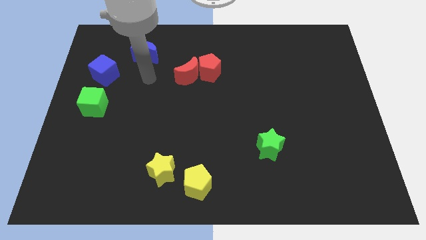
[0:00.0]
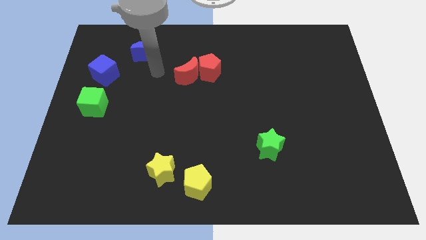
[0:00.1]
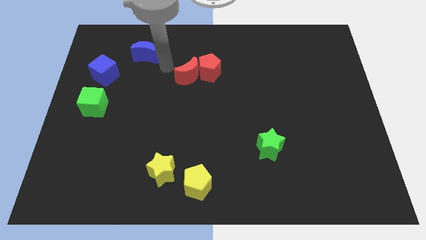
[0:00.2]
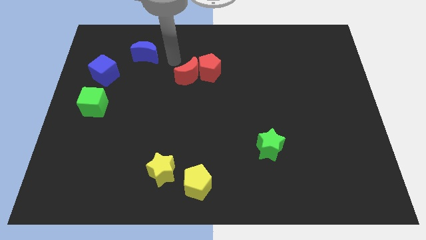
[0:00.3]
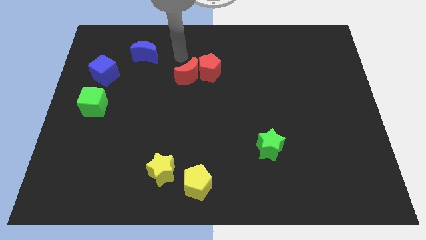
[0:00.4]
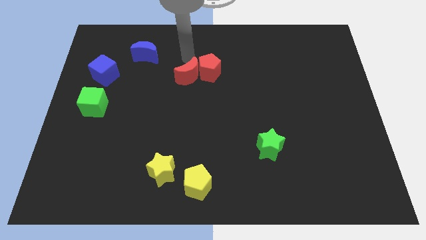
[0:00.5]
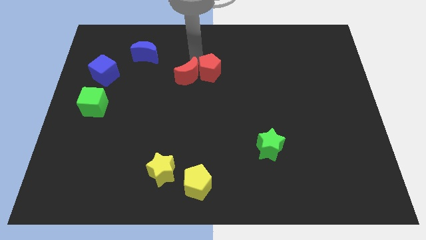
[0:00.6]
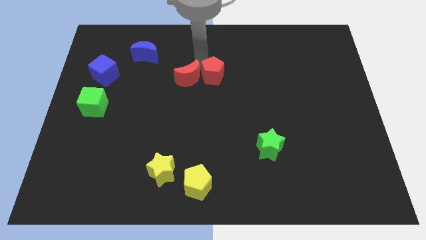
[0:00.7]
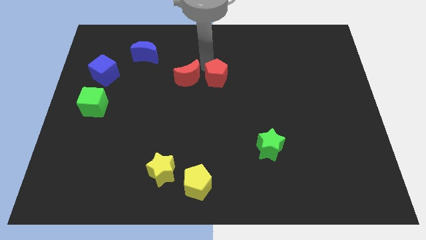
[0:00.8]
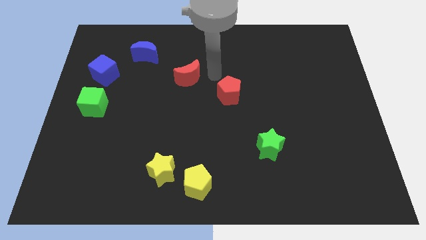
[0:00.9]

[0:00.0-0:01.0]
move the red moon away from the red pentagon

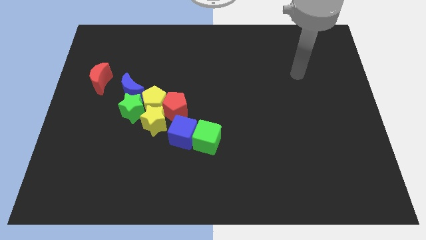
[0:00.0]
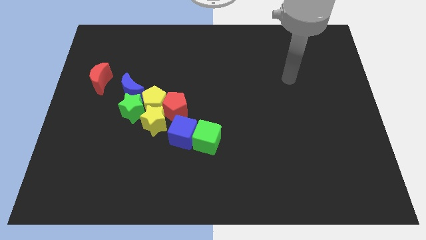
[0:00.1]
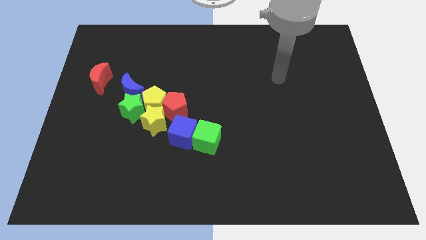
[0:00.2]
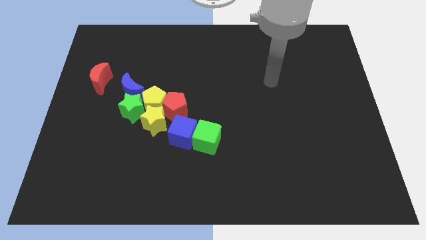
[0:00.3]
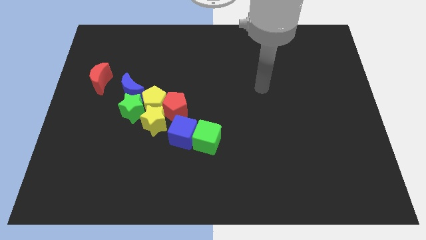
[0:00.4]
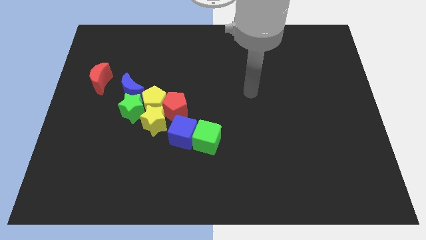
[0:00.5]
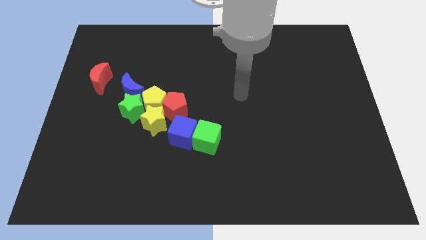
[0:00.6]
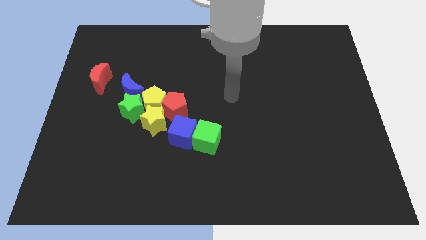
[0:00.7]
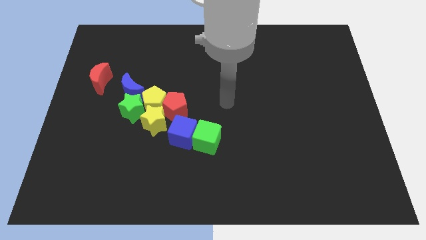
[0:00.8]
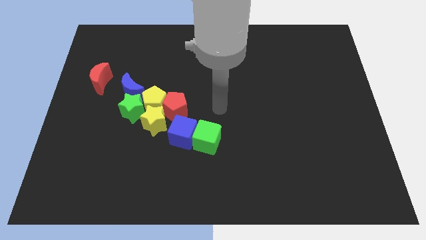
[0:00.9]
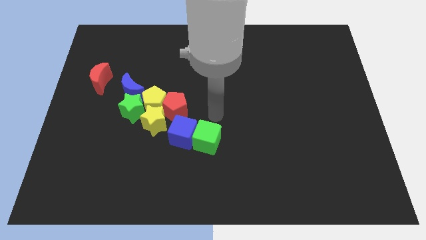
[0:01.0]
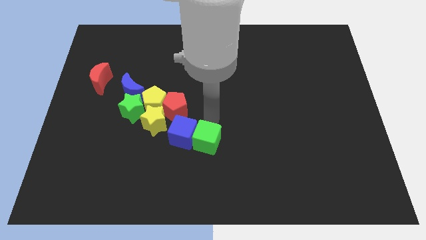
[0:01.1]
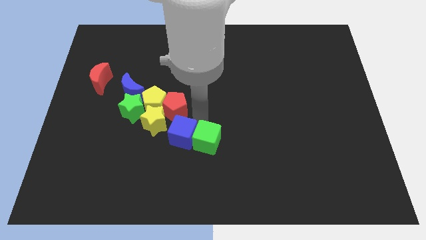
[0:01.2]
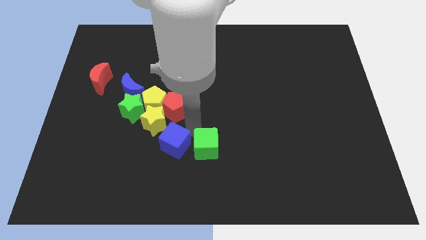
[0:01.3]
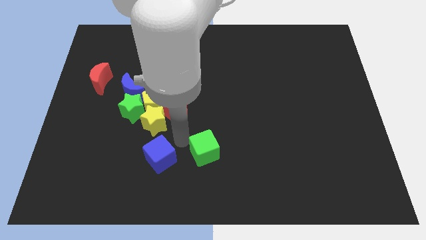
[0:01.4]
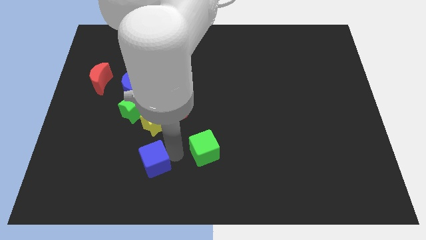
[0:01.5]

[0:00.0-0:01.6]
pull the green cube apart from the blue cube

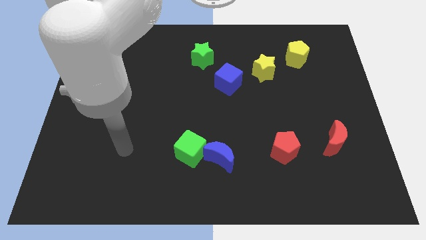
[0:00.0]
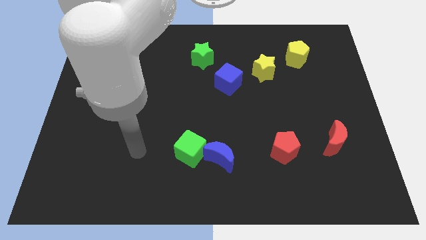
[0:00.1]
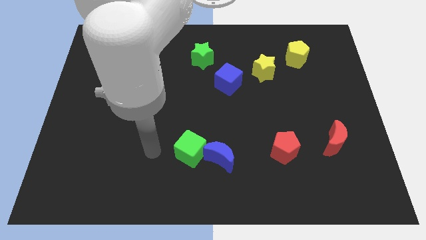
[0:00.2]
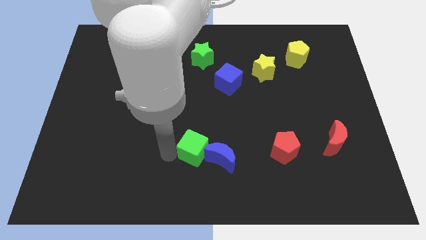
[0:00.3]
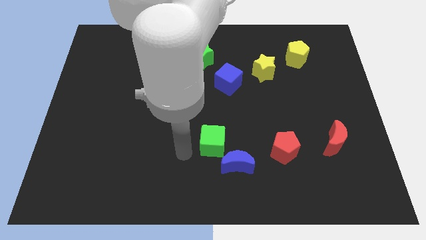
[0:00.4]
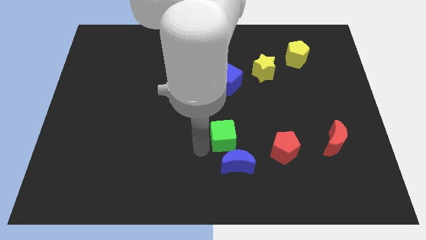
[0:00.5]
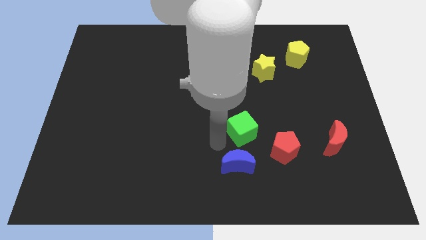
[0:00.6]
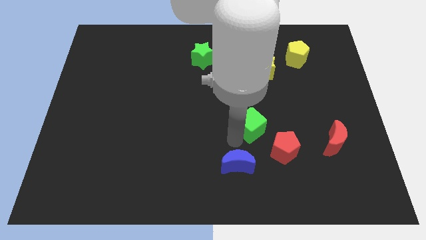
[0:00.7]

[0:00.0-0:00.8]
move the blue moon away from the green cube

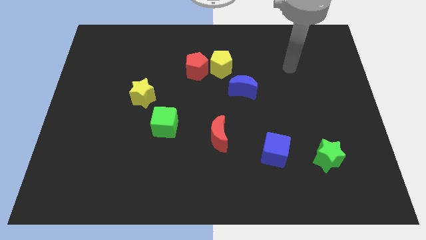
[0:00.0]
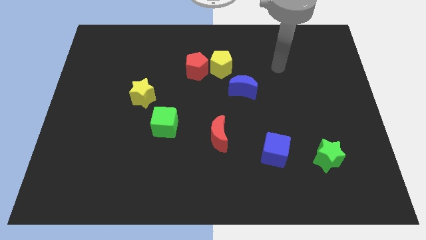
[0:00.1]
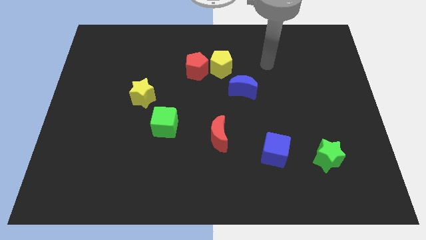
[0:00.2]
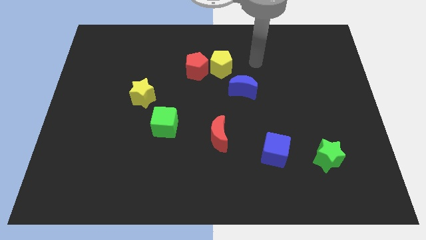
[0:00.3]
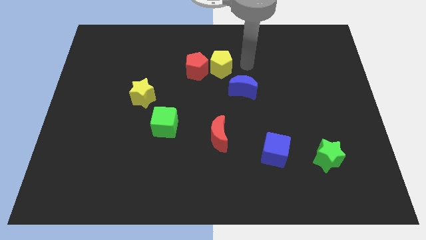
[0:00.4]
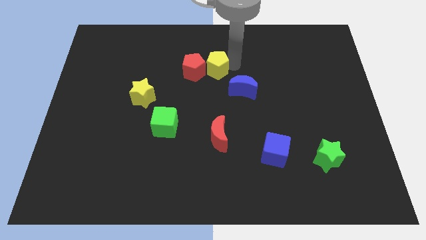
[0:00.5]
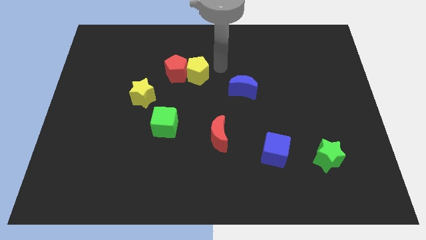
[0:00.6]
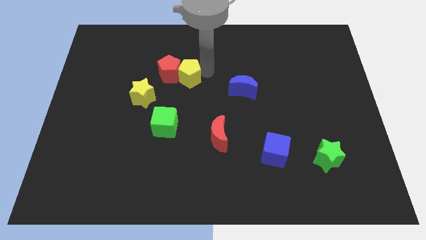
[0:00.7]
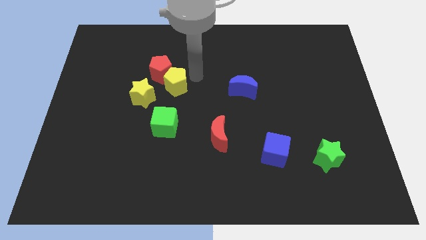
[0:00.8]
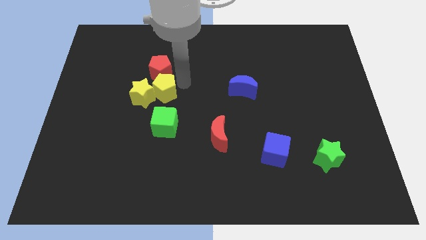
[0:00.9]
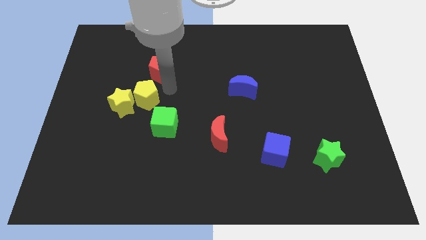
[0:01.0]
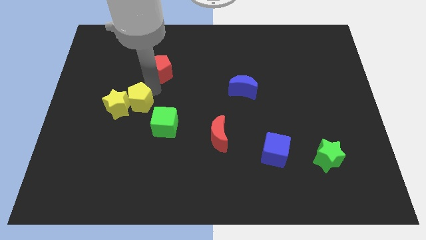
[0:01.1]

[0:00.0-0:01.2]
separate the red pentagon from the yellow pentagon

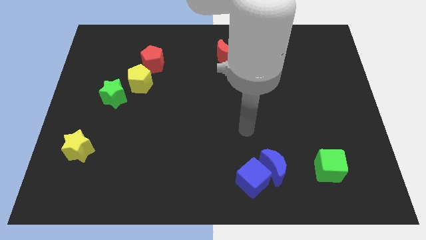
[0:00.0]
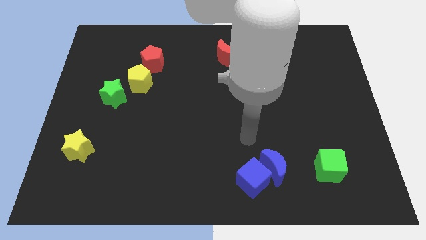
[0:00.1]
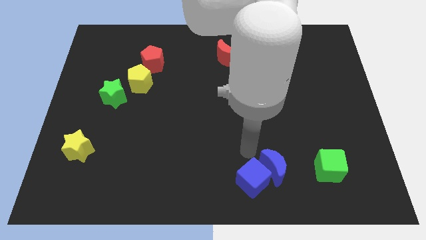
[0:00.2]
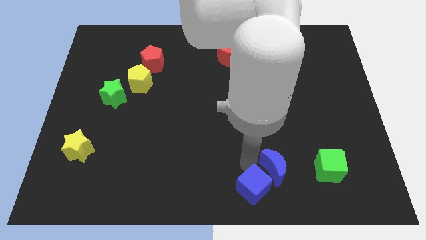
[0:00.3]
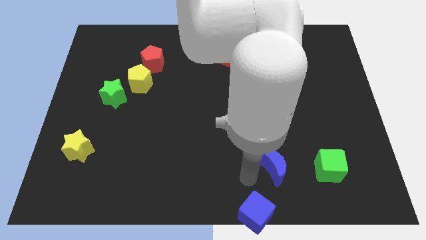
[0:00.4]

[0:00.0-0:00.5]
pull the blue moon apart from the blue cube

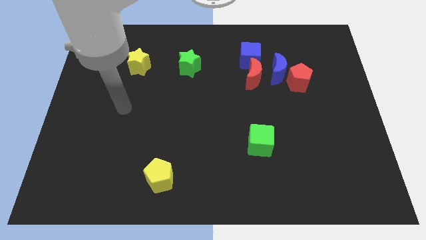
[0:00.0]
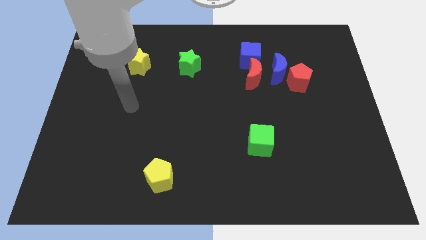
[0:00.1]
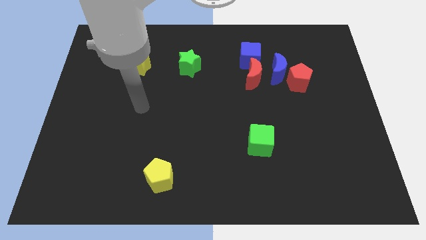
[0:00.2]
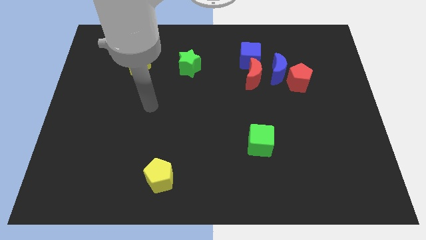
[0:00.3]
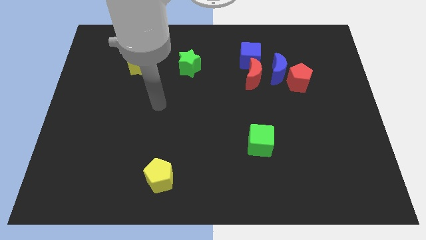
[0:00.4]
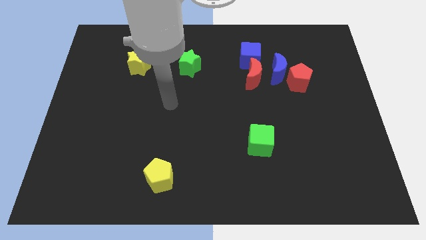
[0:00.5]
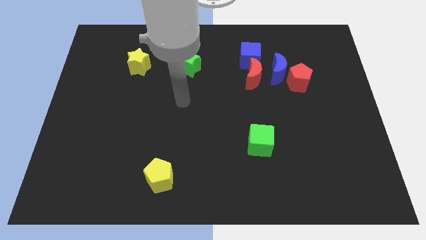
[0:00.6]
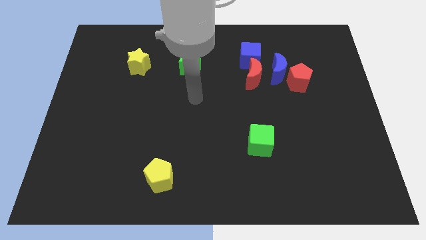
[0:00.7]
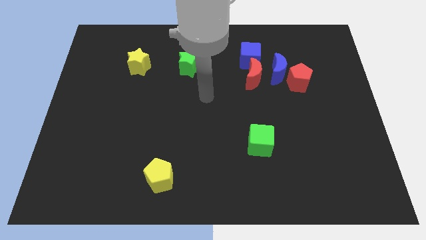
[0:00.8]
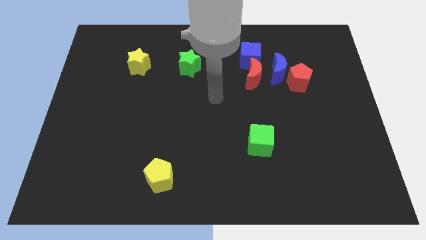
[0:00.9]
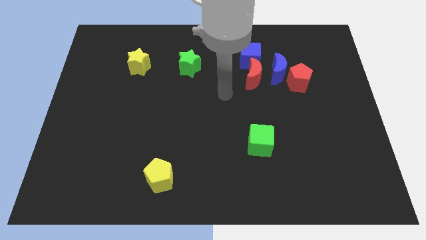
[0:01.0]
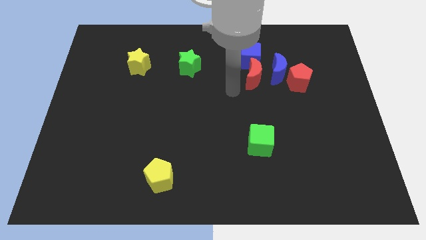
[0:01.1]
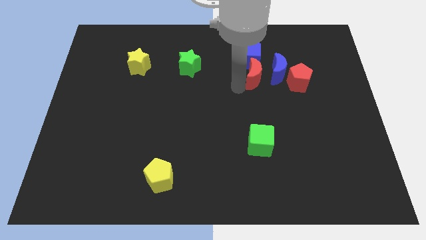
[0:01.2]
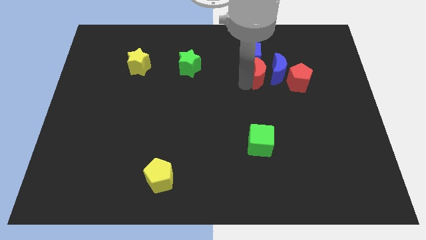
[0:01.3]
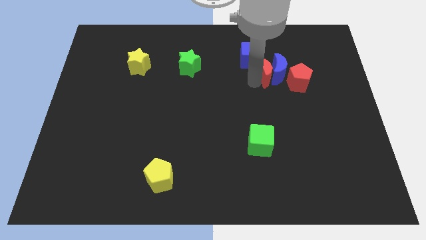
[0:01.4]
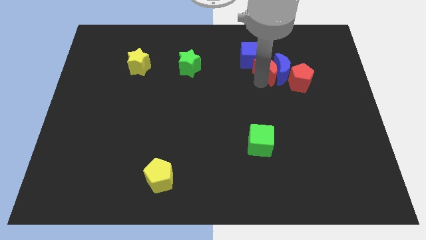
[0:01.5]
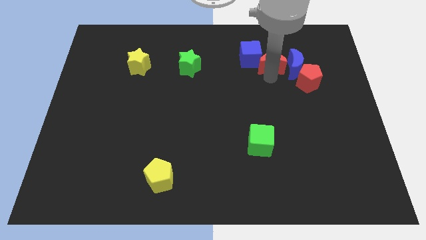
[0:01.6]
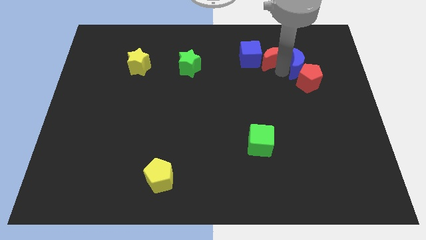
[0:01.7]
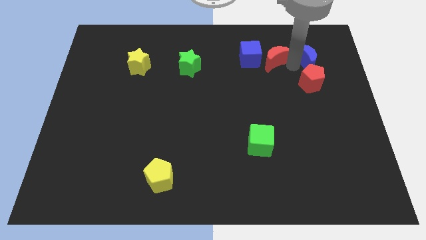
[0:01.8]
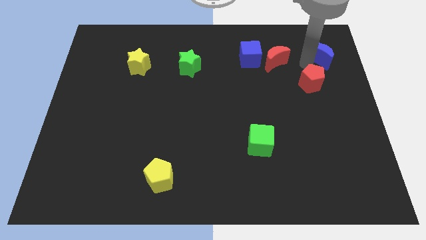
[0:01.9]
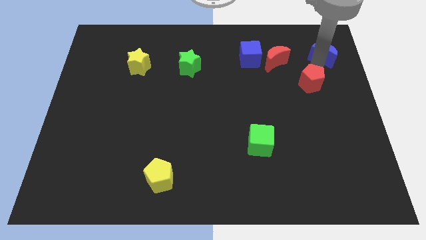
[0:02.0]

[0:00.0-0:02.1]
pull the red pentagon apart from the blue moon

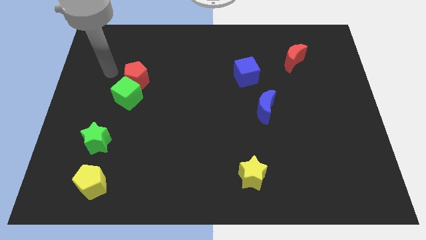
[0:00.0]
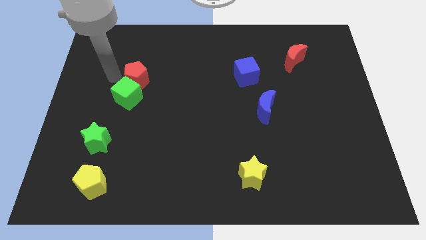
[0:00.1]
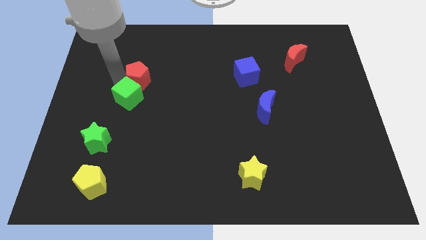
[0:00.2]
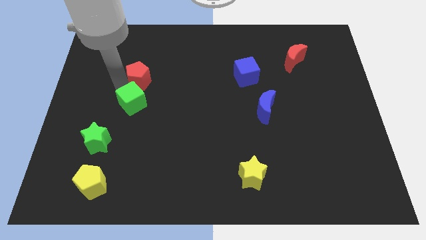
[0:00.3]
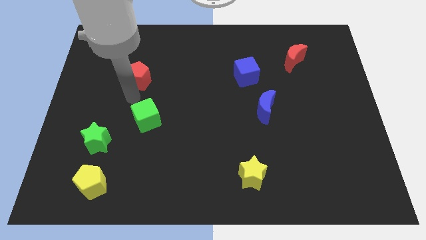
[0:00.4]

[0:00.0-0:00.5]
pull the red pentagon apart from the green cube

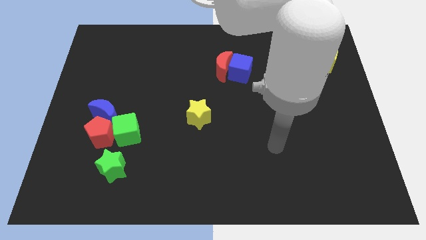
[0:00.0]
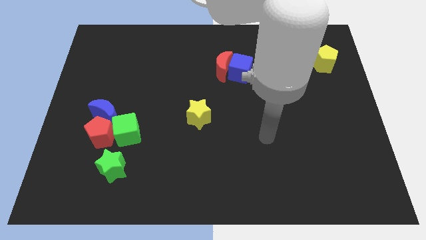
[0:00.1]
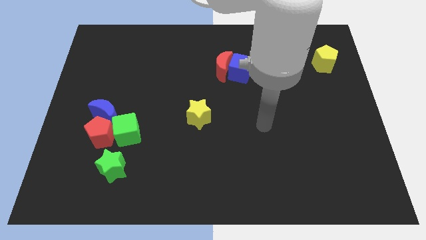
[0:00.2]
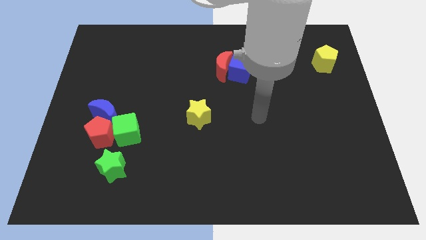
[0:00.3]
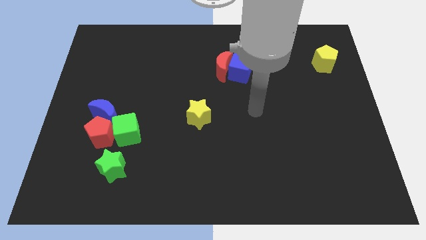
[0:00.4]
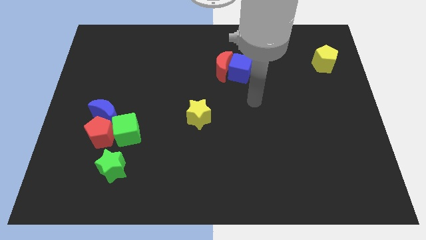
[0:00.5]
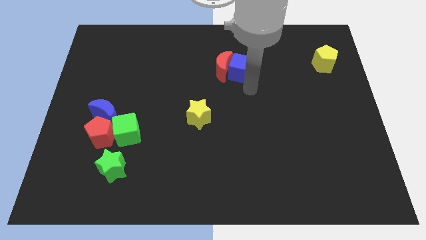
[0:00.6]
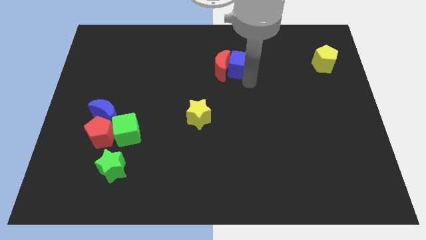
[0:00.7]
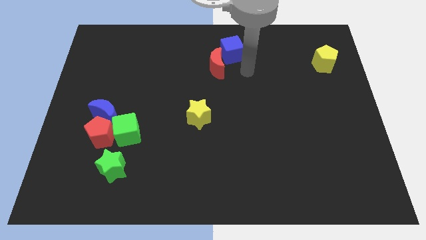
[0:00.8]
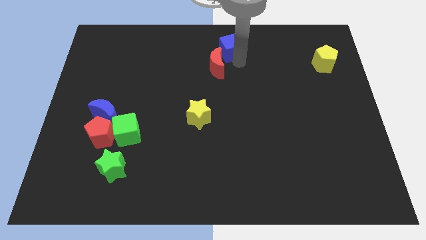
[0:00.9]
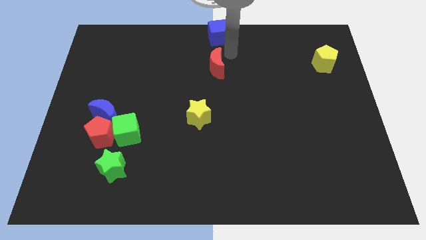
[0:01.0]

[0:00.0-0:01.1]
separate the red moon from the blue cube

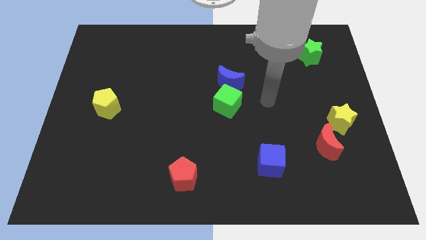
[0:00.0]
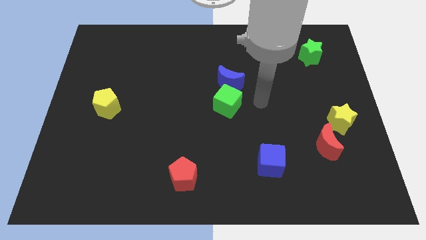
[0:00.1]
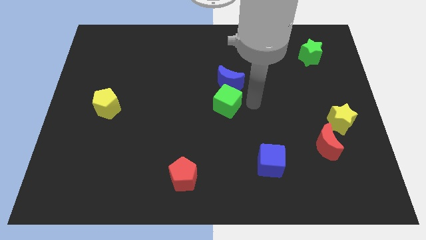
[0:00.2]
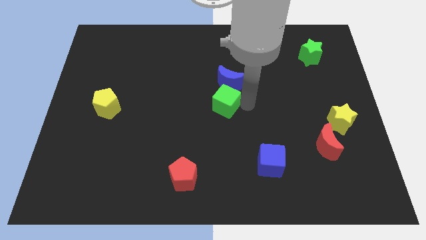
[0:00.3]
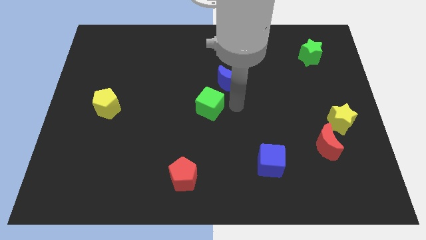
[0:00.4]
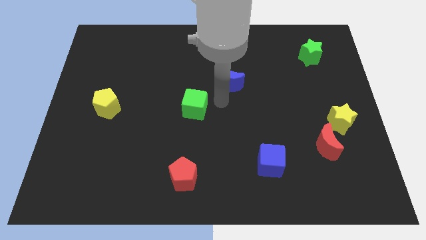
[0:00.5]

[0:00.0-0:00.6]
separate the blue moon from the green cube
